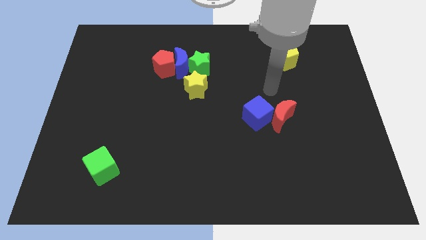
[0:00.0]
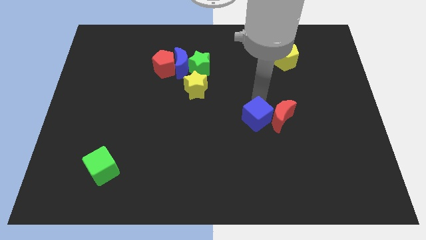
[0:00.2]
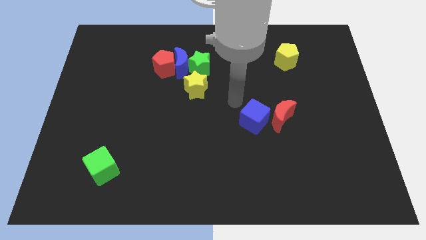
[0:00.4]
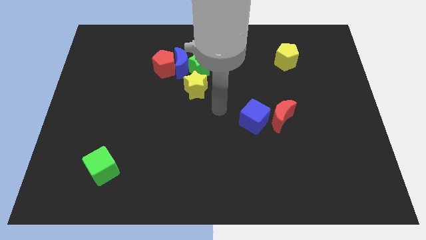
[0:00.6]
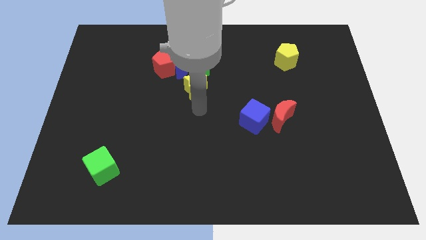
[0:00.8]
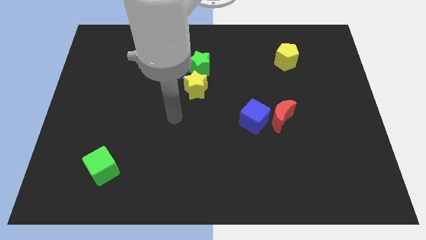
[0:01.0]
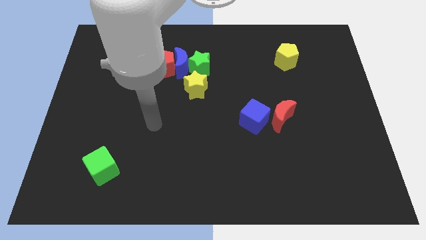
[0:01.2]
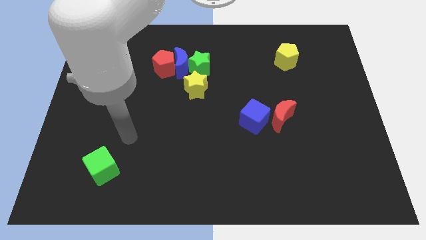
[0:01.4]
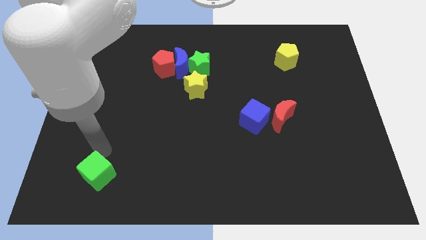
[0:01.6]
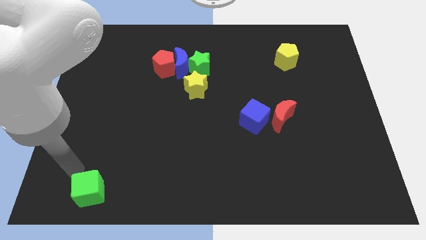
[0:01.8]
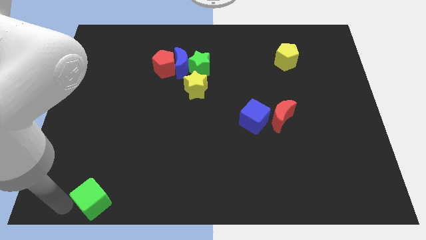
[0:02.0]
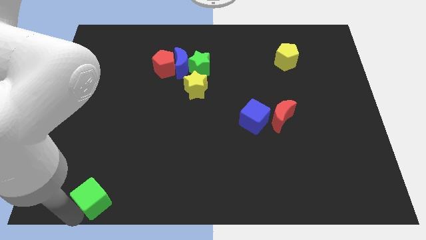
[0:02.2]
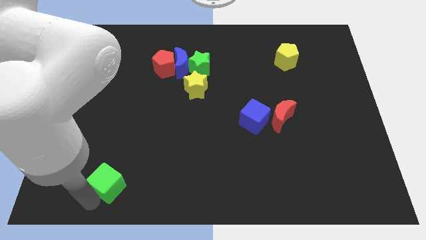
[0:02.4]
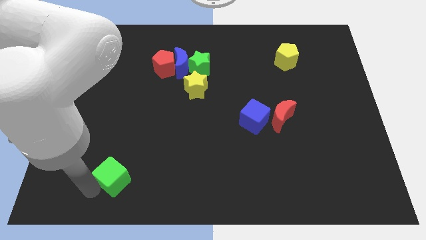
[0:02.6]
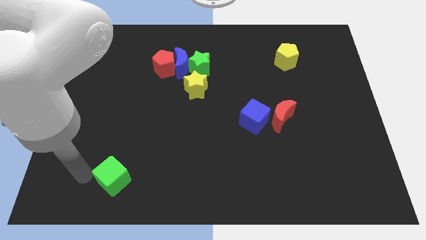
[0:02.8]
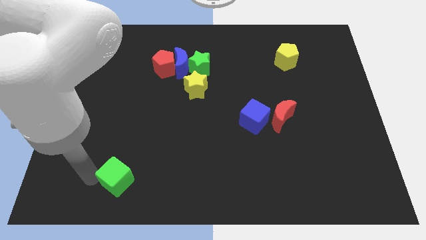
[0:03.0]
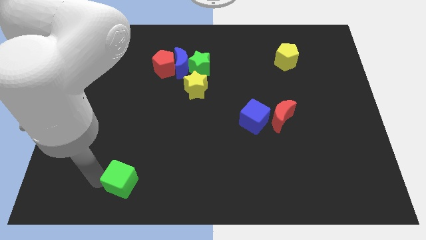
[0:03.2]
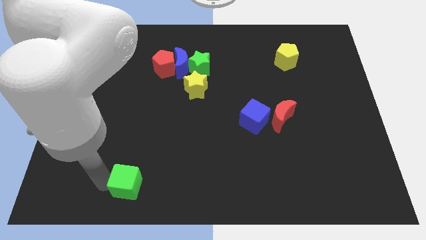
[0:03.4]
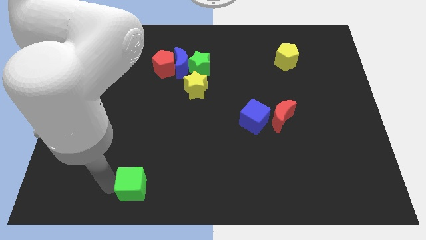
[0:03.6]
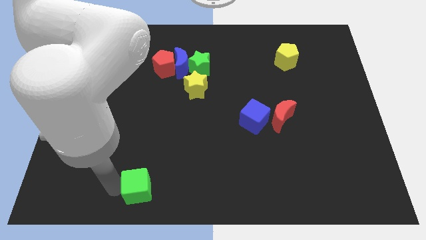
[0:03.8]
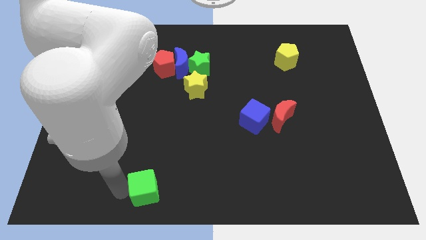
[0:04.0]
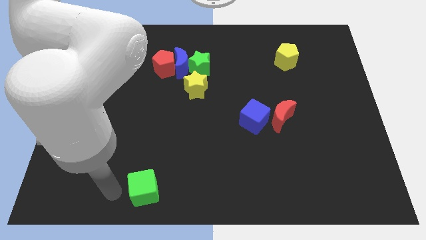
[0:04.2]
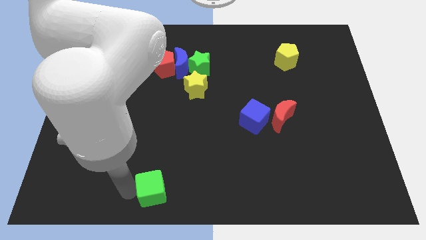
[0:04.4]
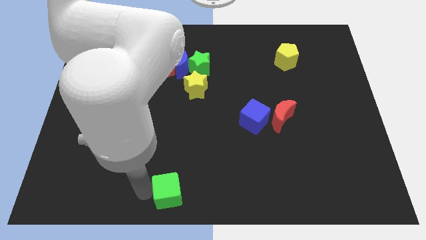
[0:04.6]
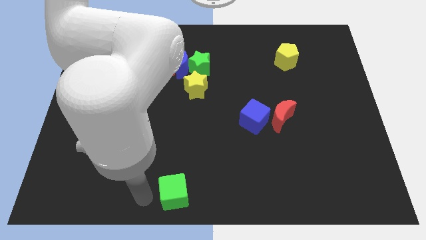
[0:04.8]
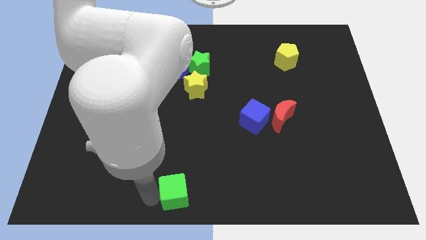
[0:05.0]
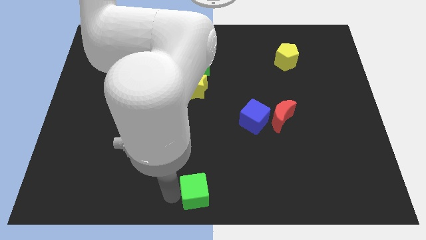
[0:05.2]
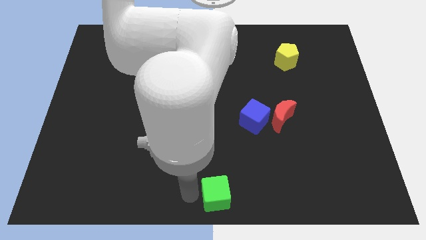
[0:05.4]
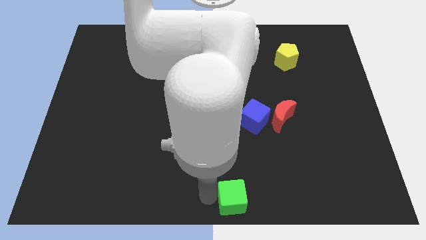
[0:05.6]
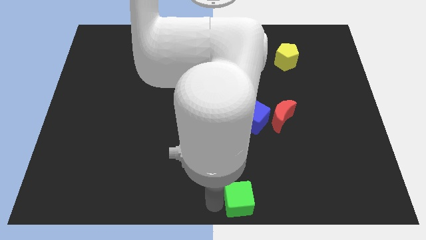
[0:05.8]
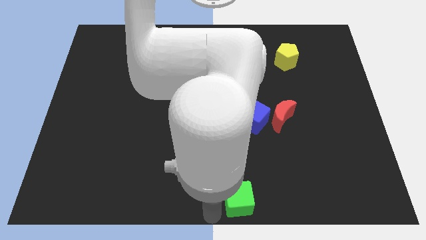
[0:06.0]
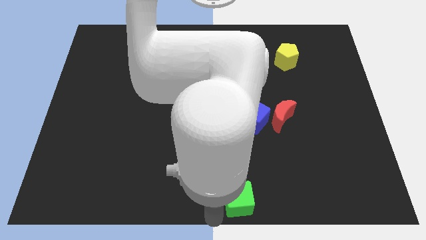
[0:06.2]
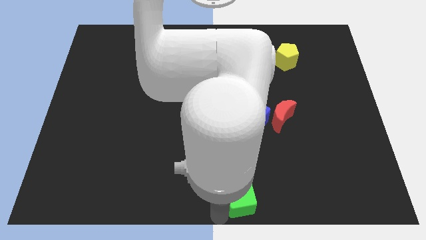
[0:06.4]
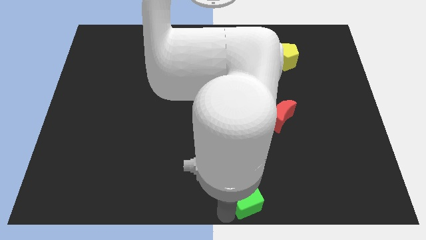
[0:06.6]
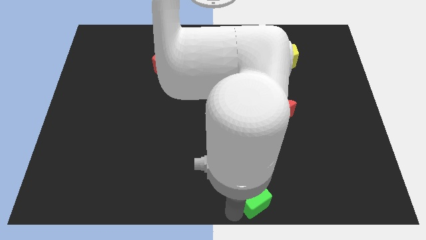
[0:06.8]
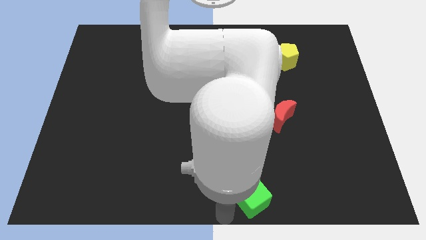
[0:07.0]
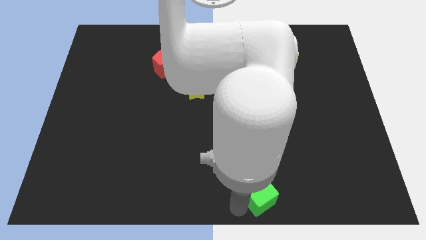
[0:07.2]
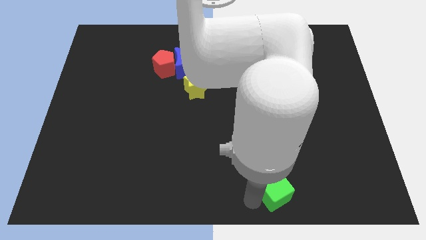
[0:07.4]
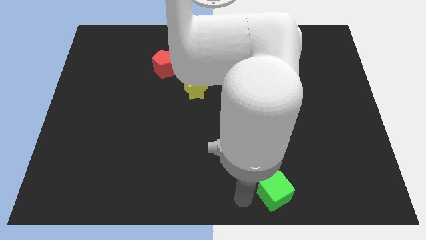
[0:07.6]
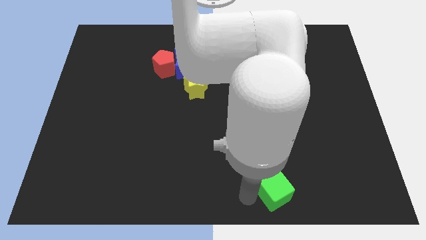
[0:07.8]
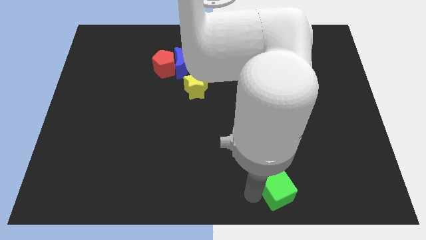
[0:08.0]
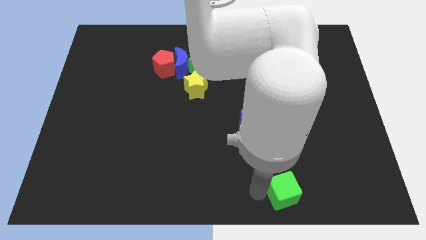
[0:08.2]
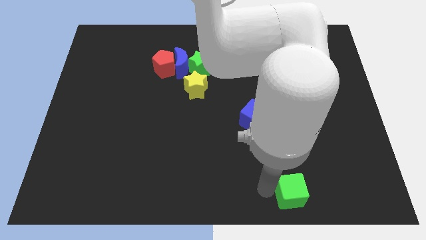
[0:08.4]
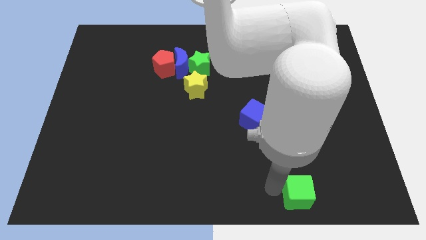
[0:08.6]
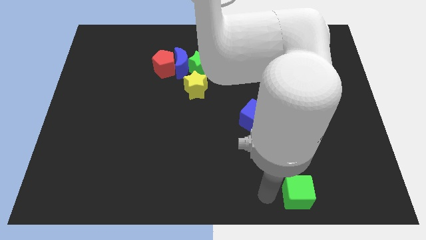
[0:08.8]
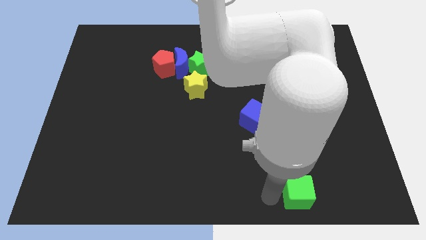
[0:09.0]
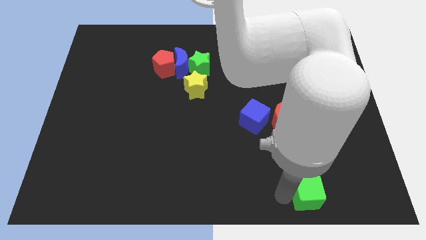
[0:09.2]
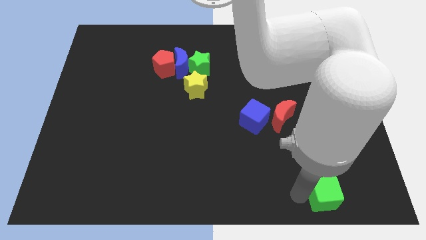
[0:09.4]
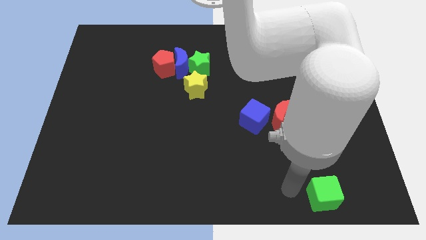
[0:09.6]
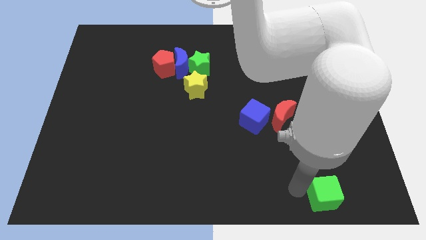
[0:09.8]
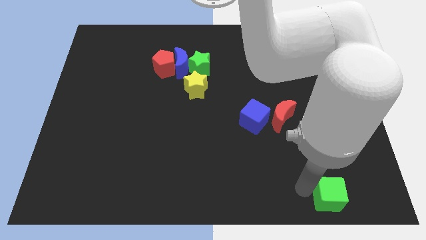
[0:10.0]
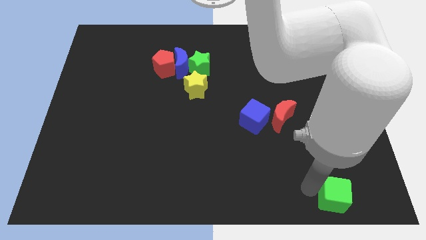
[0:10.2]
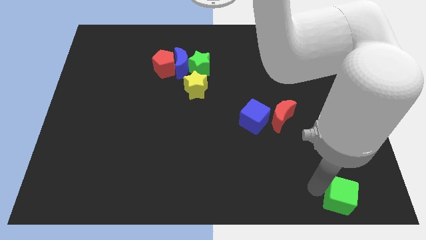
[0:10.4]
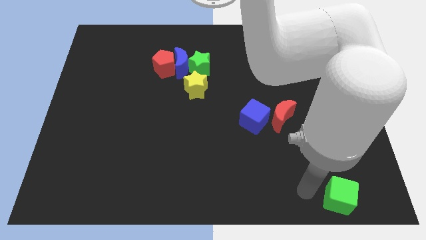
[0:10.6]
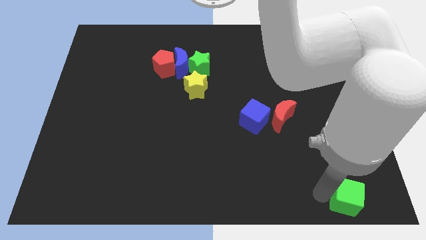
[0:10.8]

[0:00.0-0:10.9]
slide the green cube to the bottom right

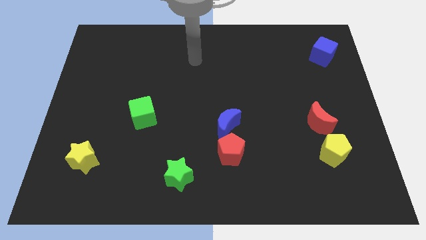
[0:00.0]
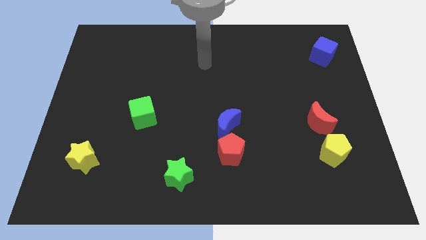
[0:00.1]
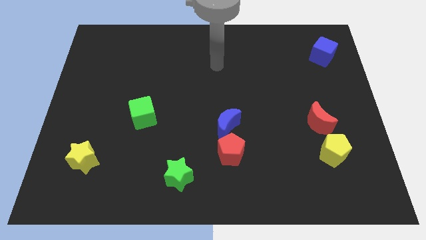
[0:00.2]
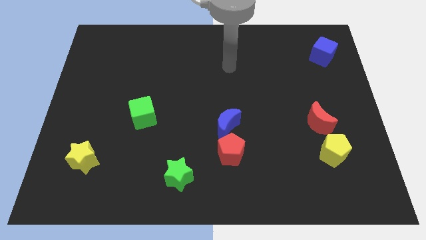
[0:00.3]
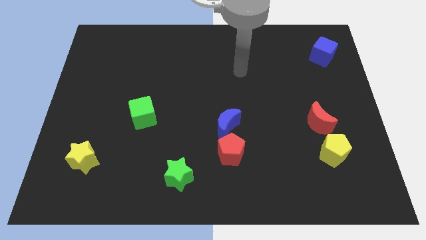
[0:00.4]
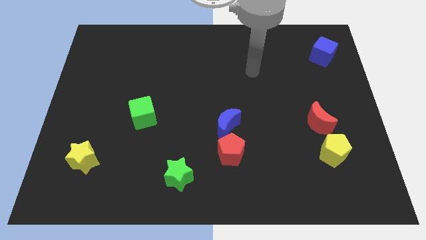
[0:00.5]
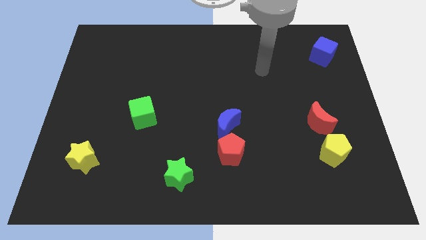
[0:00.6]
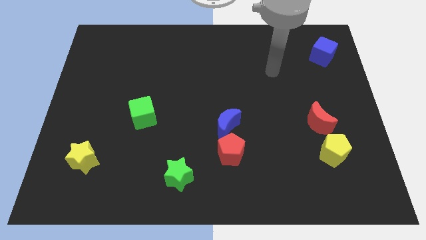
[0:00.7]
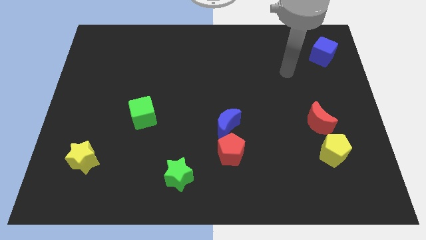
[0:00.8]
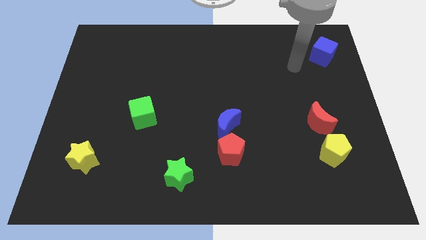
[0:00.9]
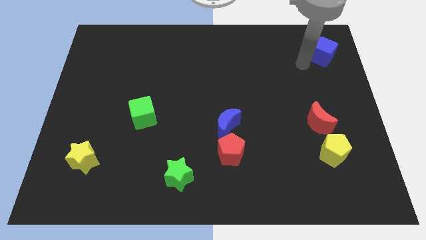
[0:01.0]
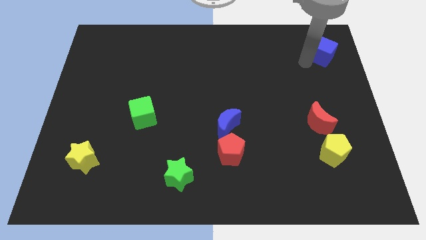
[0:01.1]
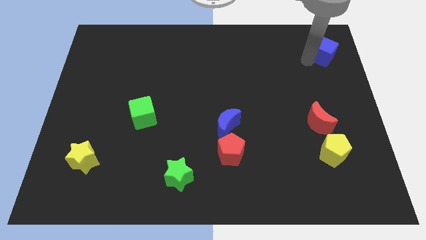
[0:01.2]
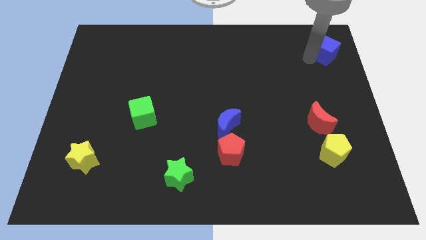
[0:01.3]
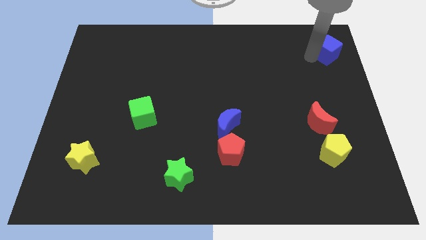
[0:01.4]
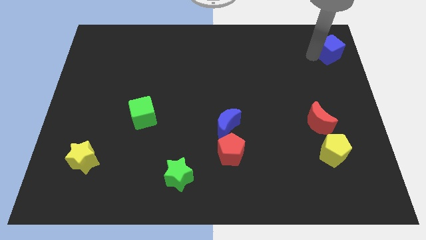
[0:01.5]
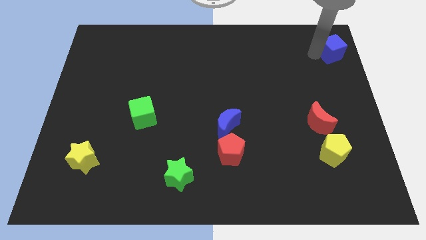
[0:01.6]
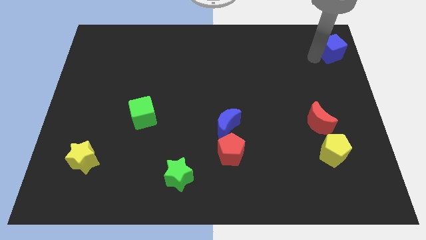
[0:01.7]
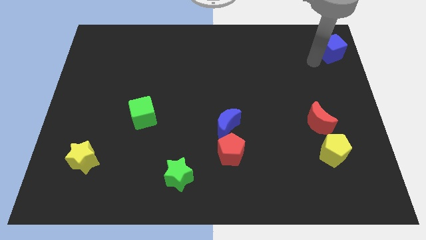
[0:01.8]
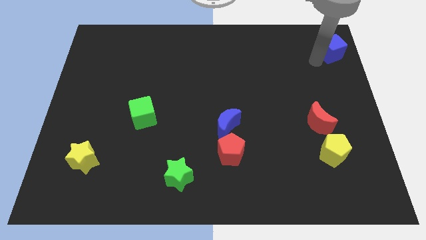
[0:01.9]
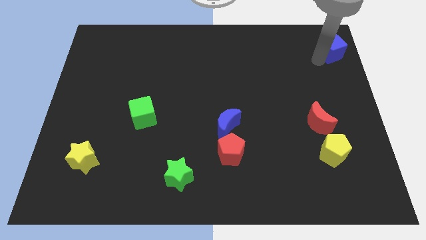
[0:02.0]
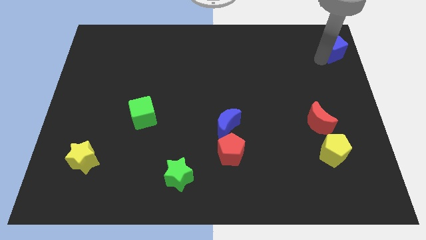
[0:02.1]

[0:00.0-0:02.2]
slide the blue cube to the top right of the board
